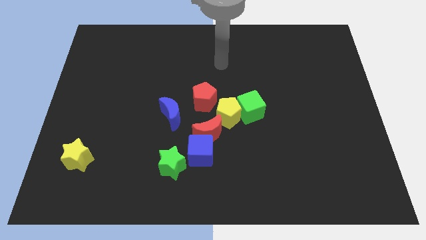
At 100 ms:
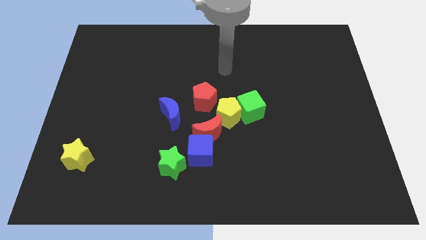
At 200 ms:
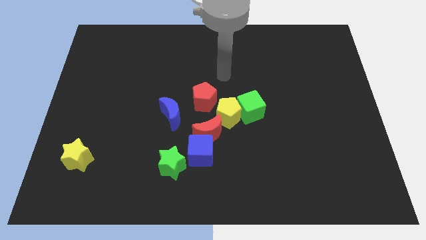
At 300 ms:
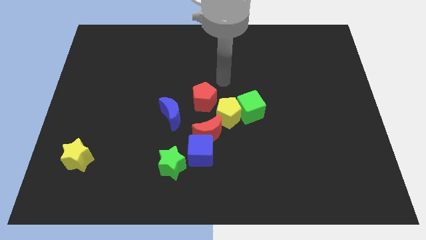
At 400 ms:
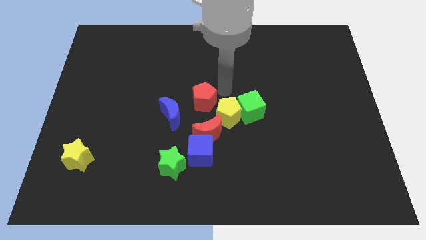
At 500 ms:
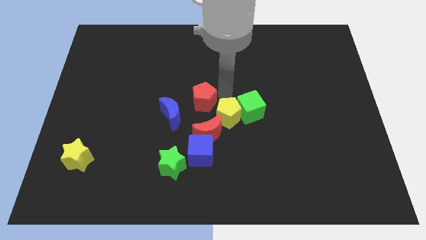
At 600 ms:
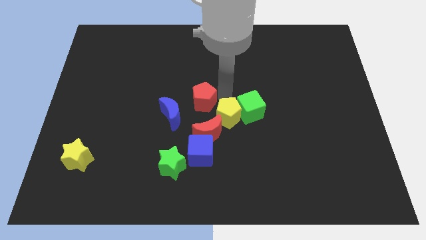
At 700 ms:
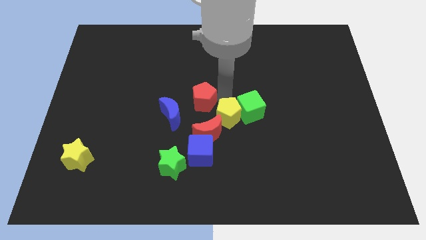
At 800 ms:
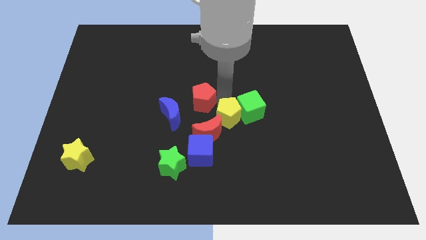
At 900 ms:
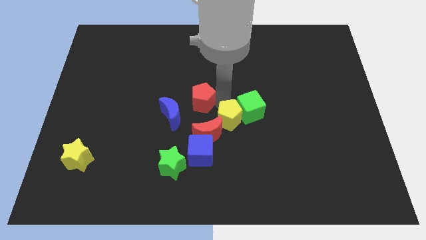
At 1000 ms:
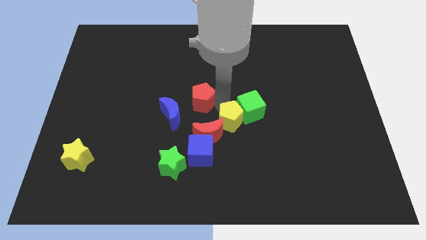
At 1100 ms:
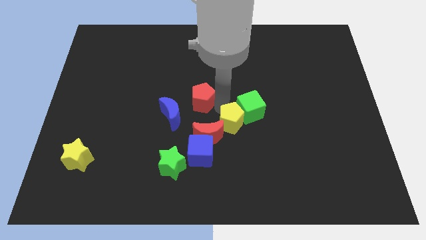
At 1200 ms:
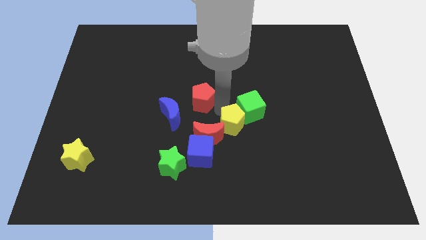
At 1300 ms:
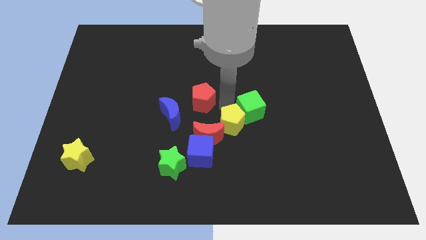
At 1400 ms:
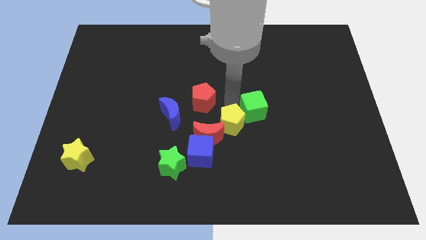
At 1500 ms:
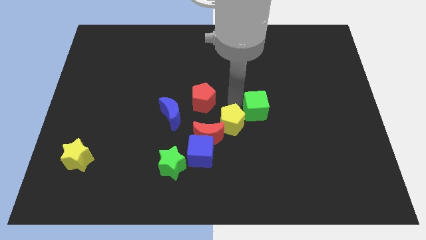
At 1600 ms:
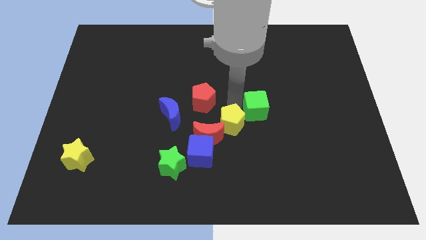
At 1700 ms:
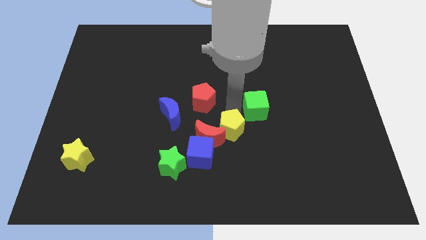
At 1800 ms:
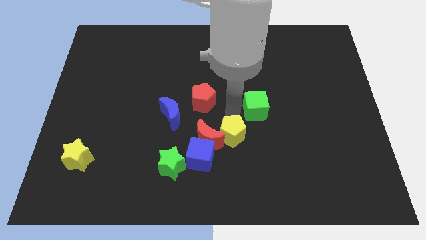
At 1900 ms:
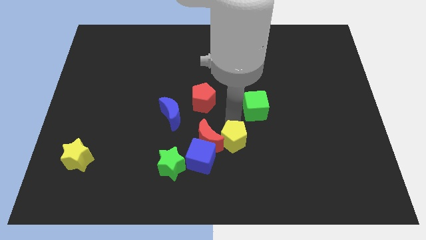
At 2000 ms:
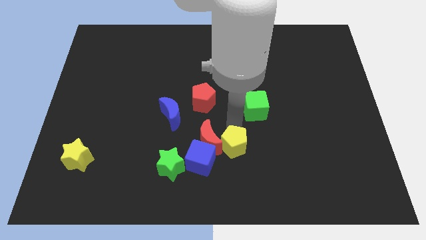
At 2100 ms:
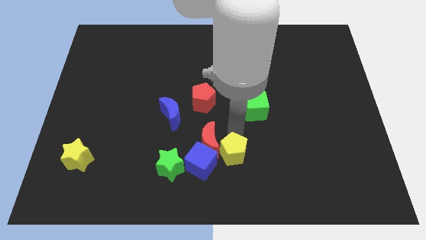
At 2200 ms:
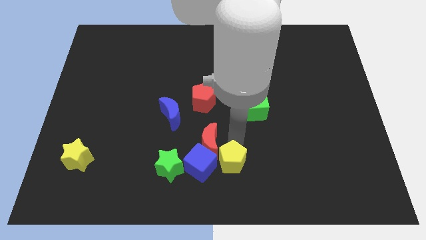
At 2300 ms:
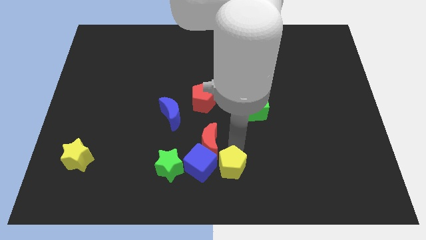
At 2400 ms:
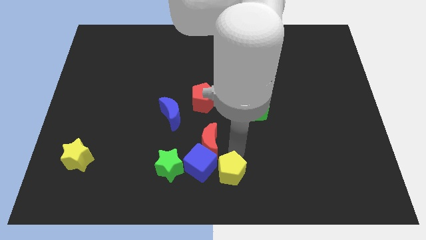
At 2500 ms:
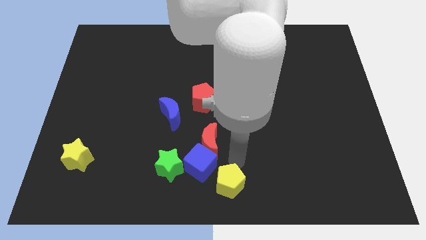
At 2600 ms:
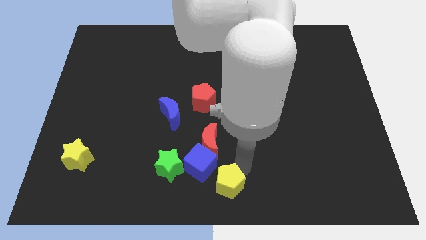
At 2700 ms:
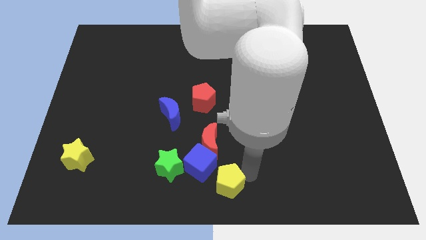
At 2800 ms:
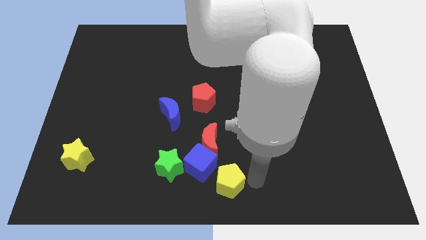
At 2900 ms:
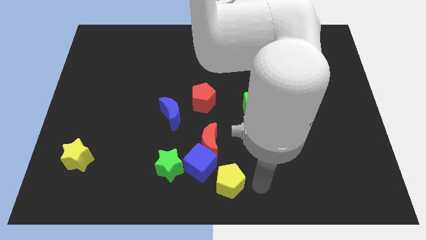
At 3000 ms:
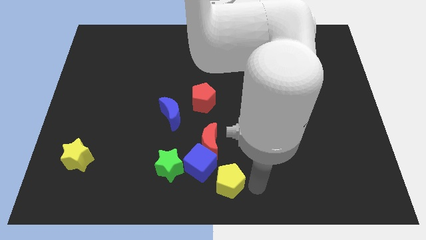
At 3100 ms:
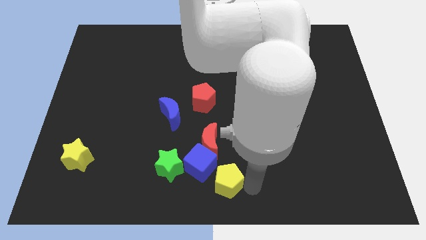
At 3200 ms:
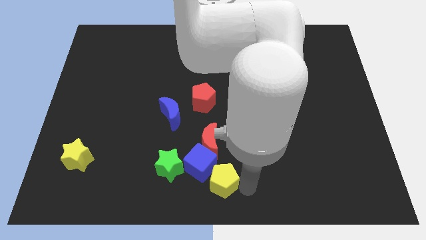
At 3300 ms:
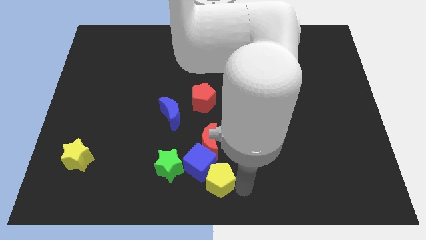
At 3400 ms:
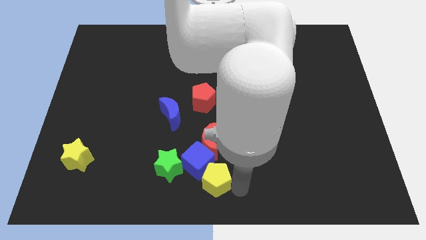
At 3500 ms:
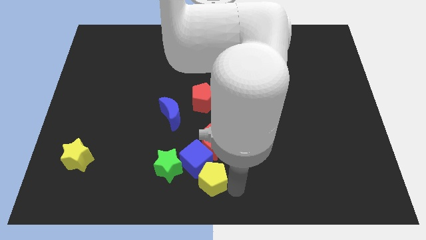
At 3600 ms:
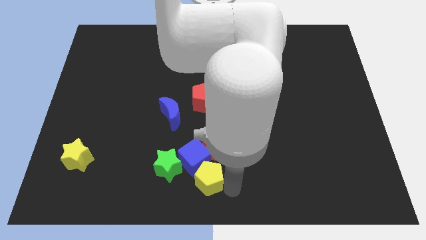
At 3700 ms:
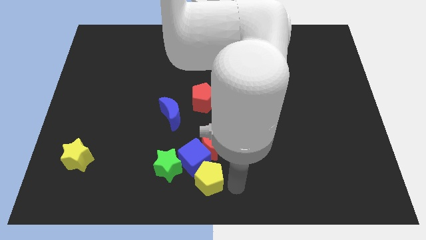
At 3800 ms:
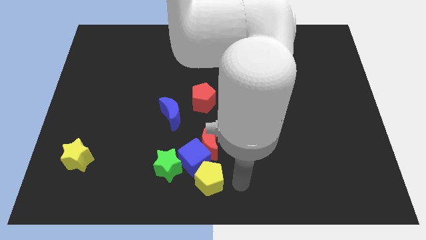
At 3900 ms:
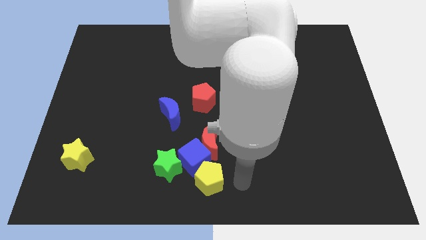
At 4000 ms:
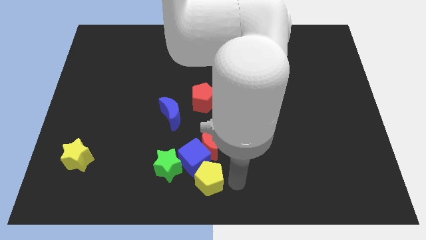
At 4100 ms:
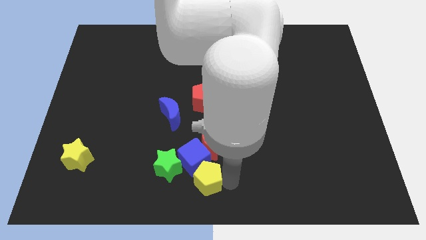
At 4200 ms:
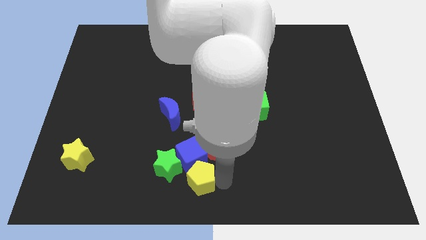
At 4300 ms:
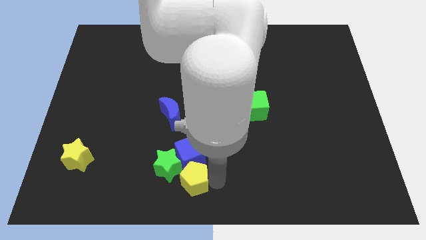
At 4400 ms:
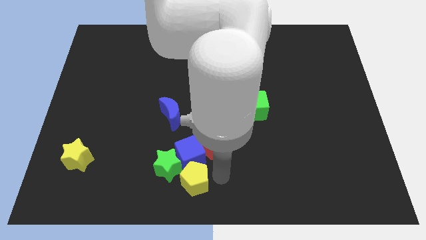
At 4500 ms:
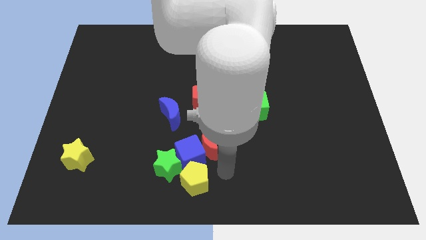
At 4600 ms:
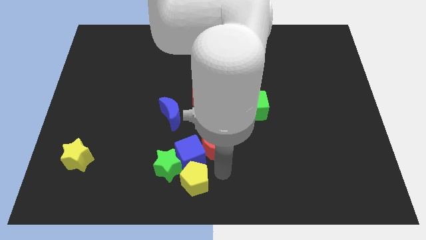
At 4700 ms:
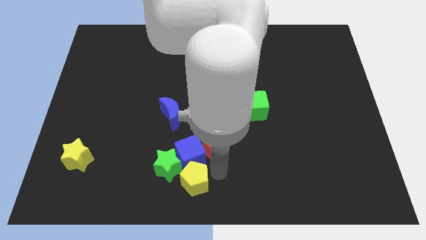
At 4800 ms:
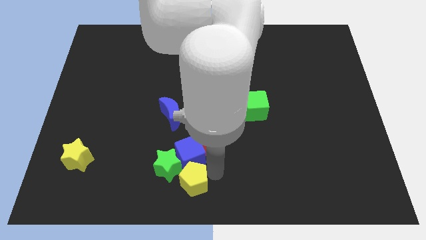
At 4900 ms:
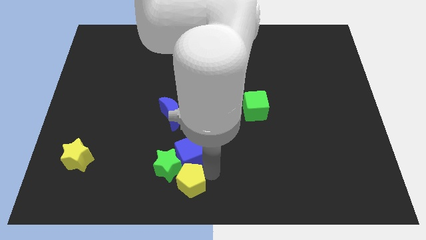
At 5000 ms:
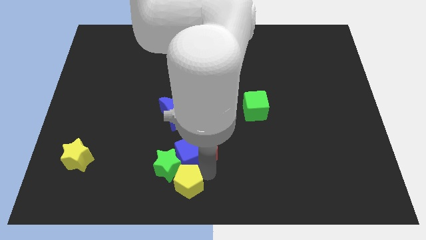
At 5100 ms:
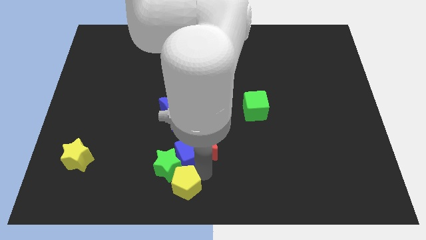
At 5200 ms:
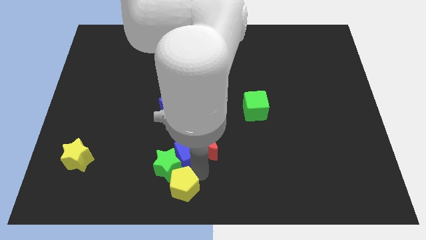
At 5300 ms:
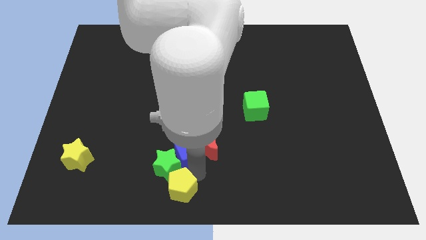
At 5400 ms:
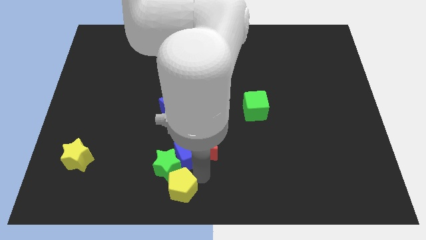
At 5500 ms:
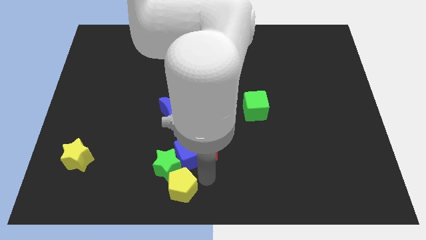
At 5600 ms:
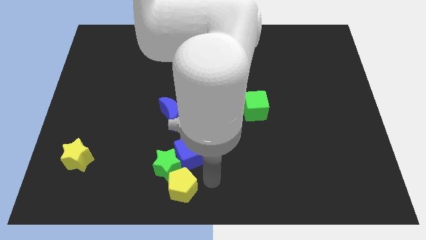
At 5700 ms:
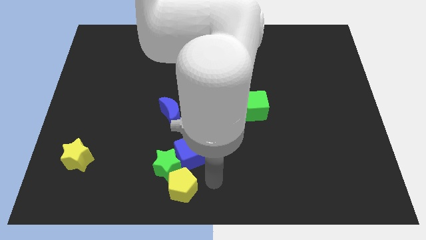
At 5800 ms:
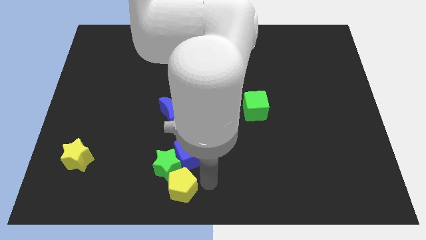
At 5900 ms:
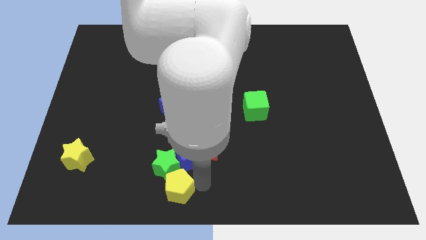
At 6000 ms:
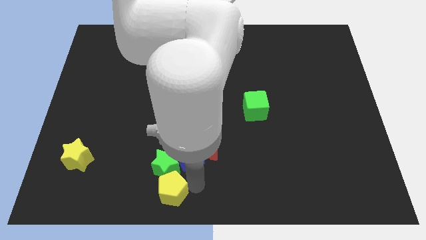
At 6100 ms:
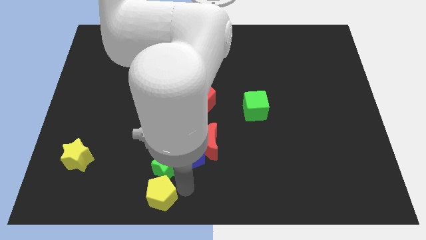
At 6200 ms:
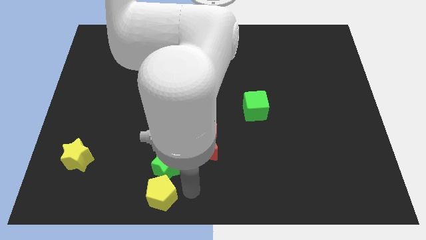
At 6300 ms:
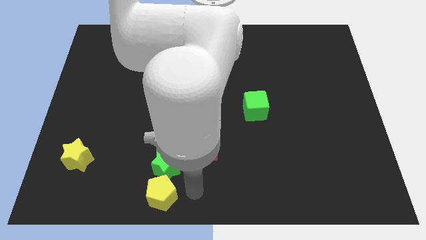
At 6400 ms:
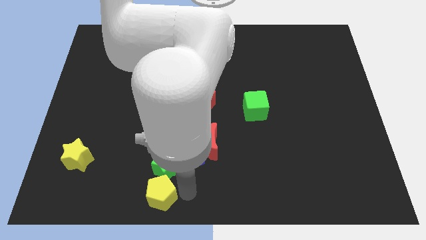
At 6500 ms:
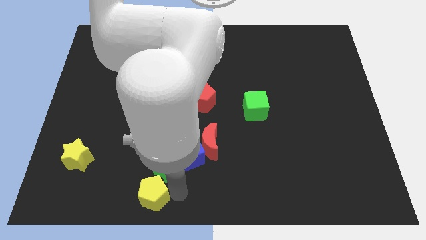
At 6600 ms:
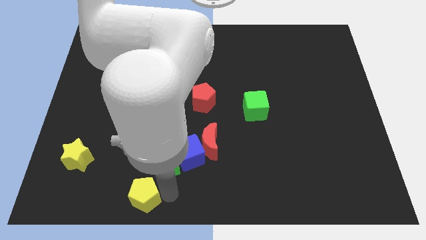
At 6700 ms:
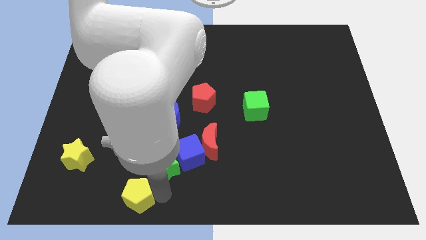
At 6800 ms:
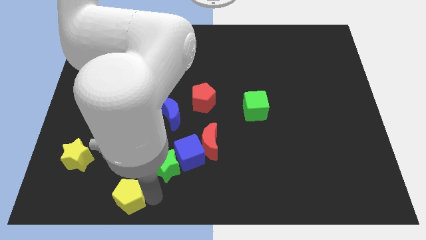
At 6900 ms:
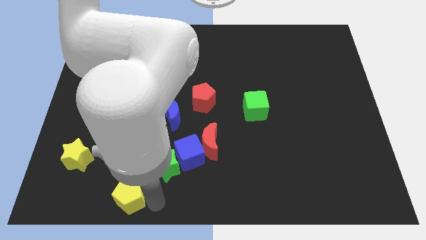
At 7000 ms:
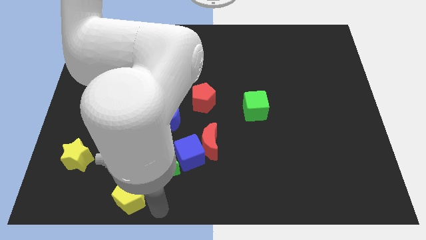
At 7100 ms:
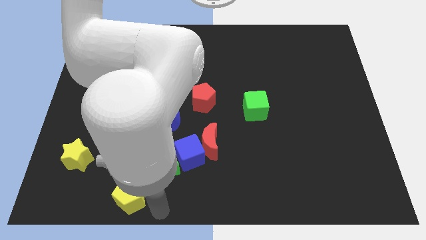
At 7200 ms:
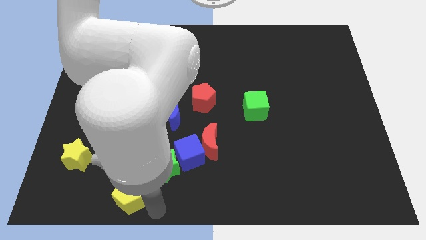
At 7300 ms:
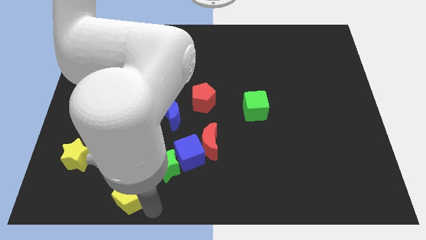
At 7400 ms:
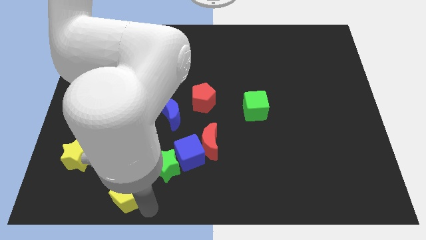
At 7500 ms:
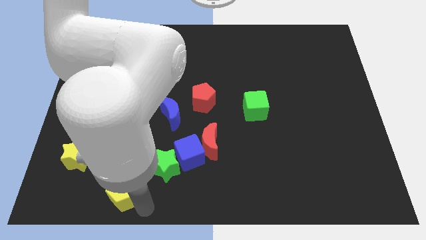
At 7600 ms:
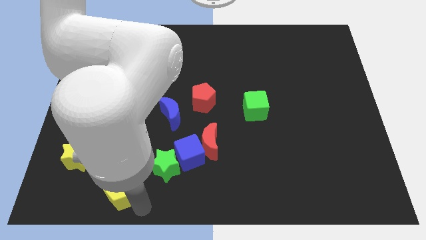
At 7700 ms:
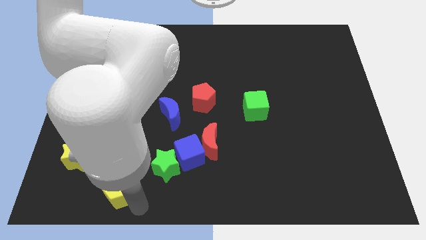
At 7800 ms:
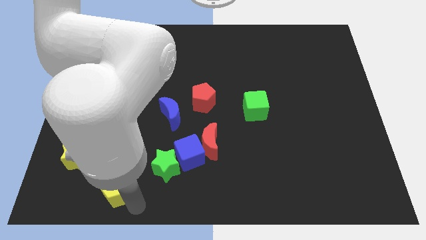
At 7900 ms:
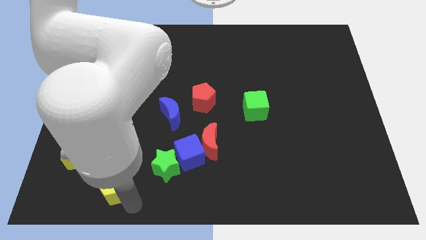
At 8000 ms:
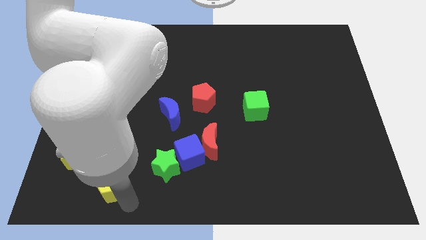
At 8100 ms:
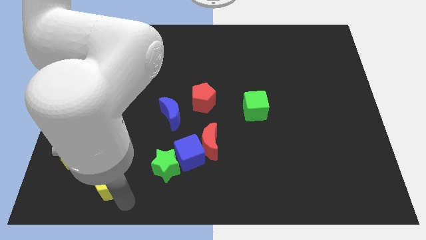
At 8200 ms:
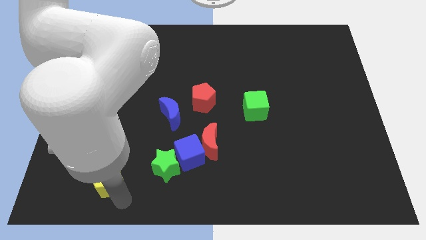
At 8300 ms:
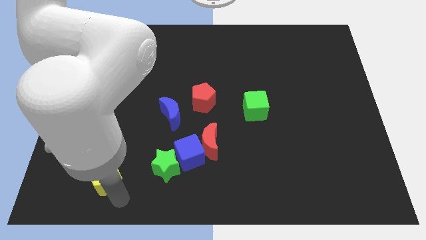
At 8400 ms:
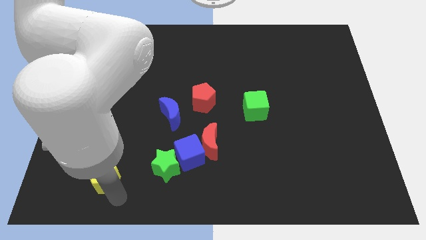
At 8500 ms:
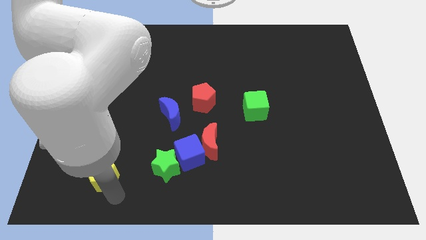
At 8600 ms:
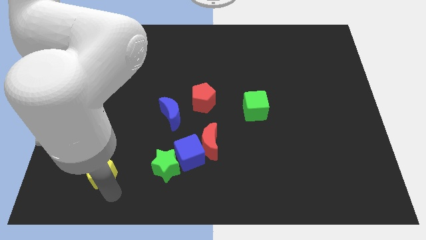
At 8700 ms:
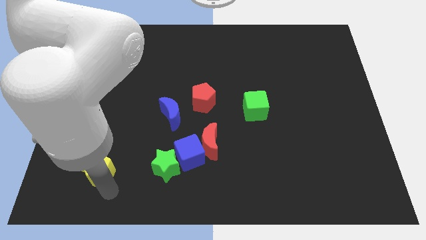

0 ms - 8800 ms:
push the yellow pentagon close to the yellow star
